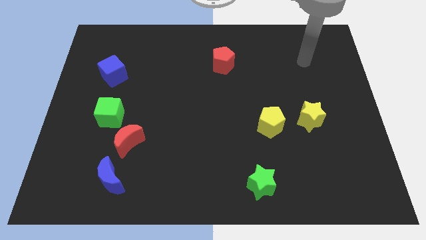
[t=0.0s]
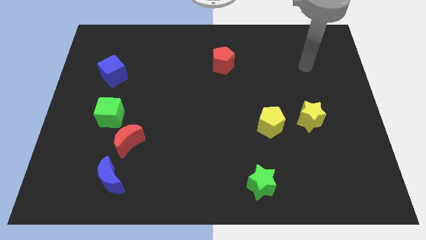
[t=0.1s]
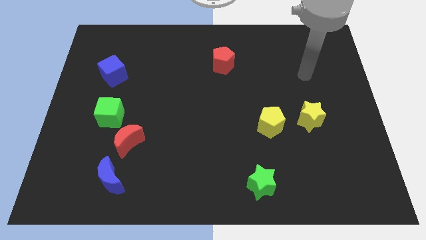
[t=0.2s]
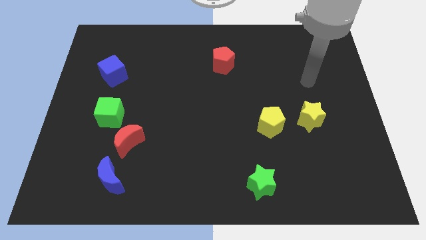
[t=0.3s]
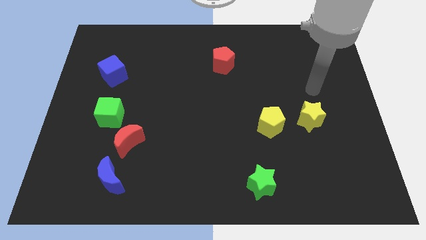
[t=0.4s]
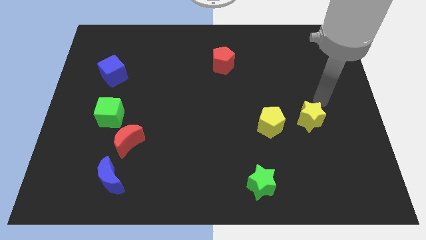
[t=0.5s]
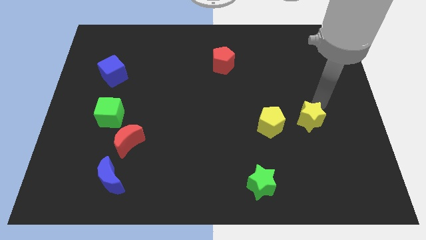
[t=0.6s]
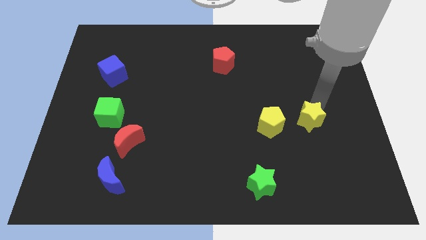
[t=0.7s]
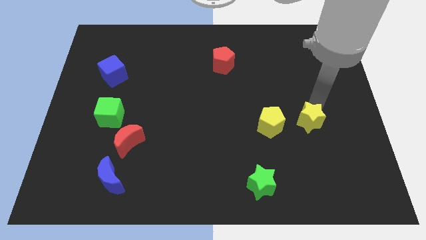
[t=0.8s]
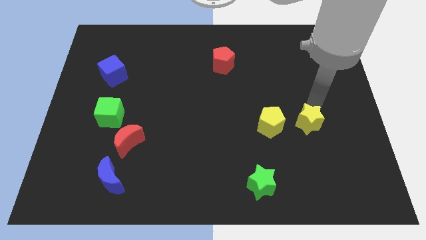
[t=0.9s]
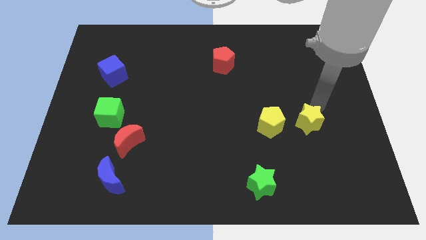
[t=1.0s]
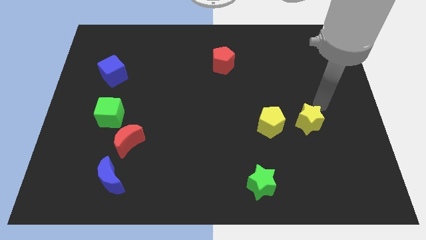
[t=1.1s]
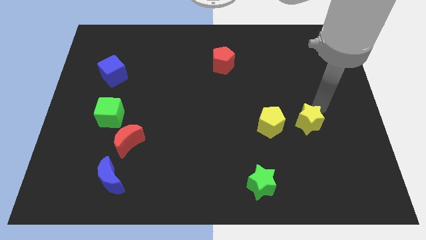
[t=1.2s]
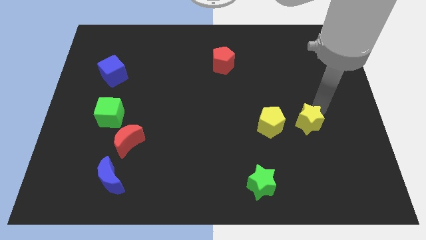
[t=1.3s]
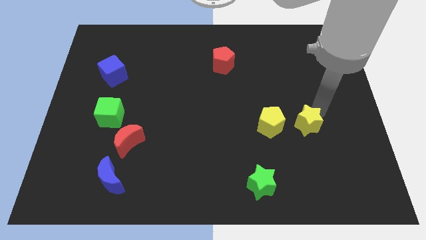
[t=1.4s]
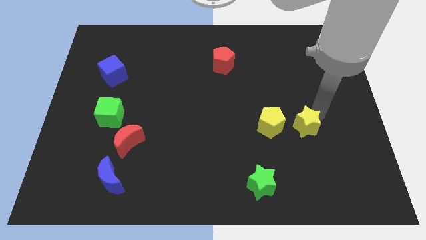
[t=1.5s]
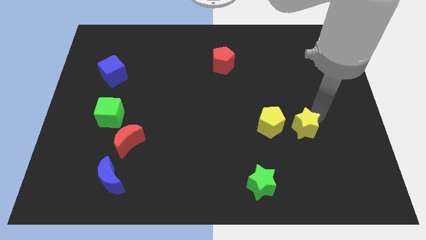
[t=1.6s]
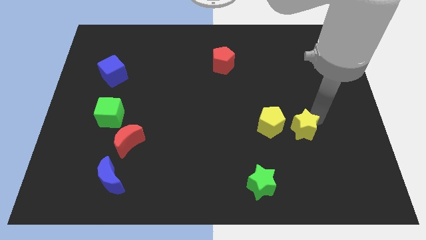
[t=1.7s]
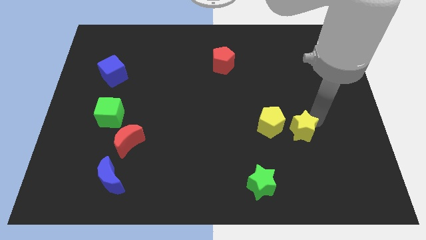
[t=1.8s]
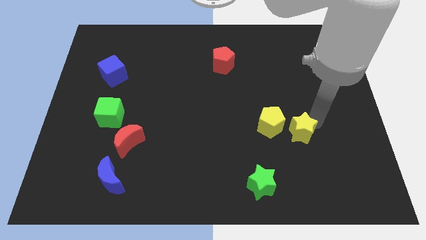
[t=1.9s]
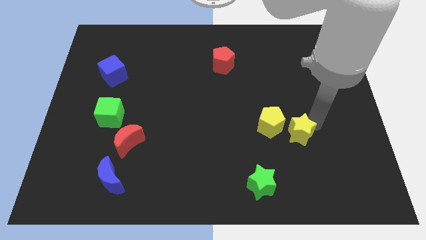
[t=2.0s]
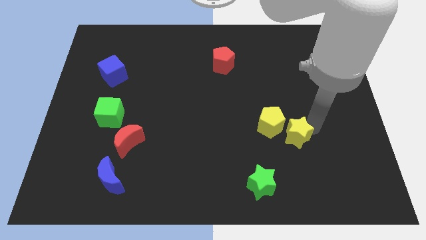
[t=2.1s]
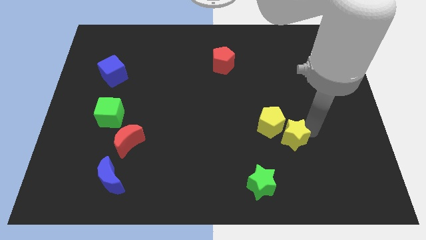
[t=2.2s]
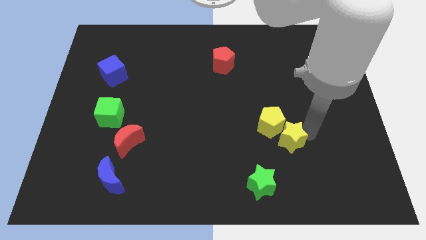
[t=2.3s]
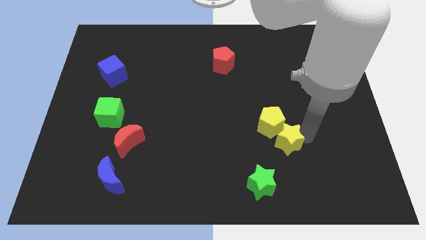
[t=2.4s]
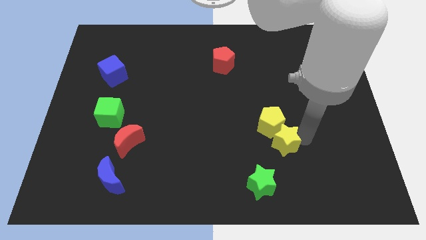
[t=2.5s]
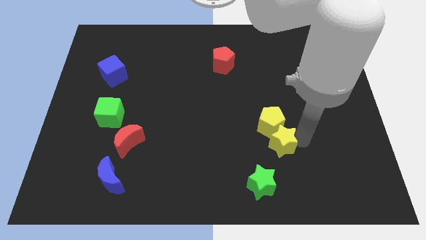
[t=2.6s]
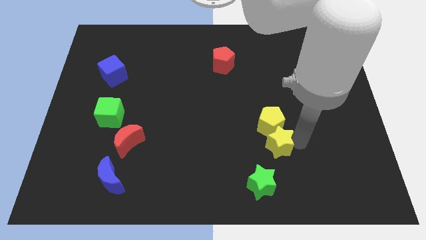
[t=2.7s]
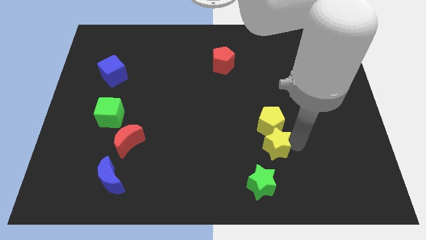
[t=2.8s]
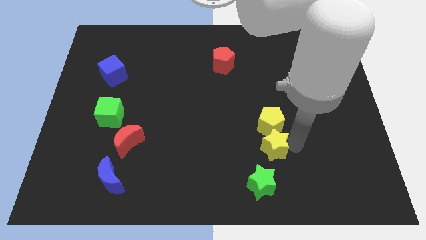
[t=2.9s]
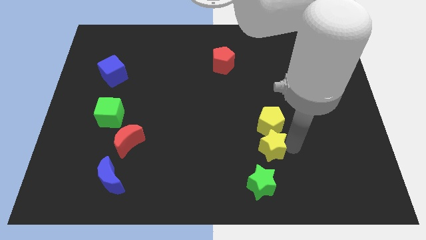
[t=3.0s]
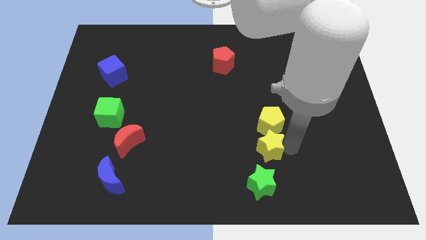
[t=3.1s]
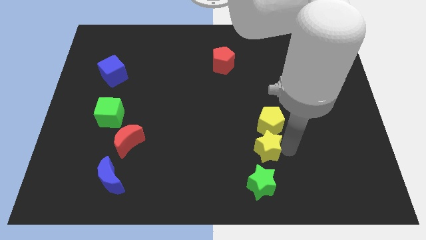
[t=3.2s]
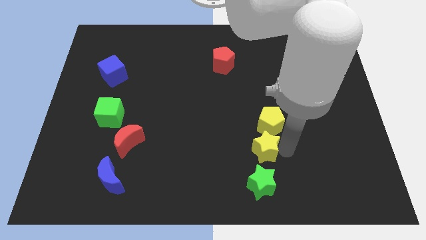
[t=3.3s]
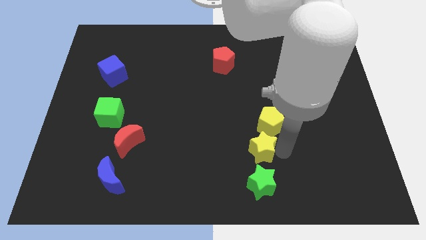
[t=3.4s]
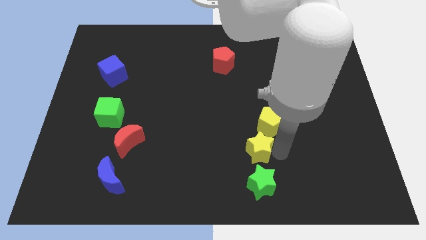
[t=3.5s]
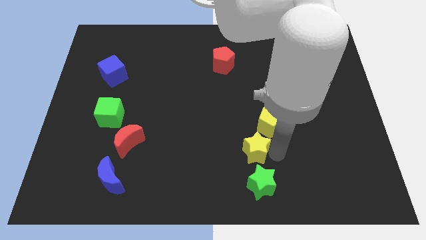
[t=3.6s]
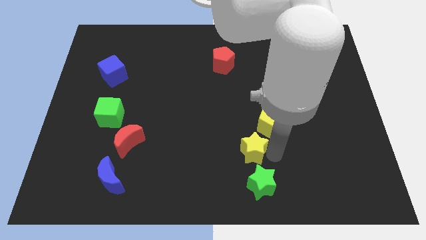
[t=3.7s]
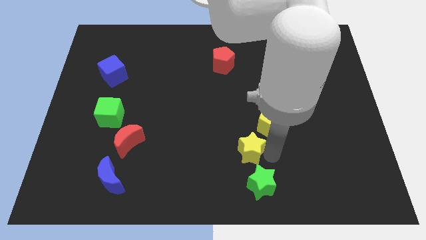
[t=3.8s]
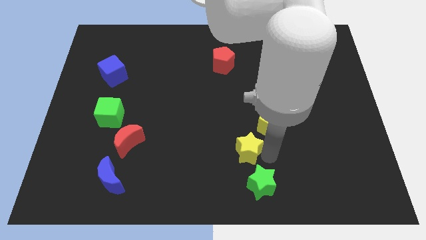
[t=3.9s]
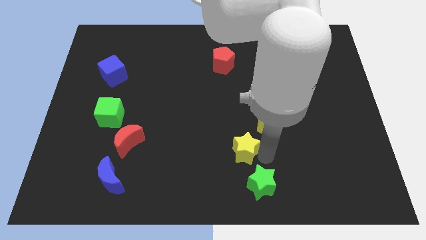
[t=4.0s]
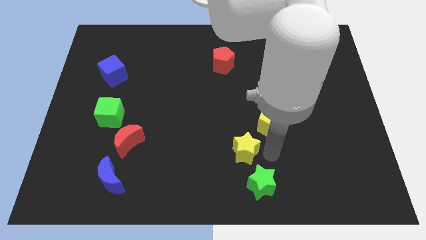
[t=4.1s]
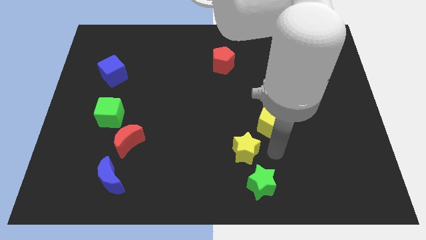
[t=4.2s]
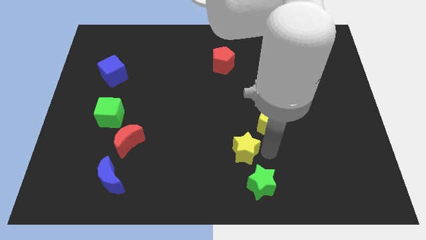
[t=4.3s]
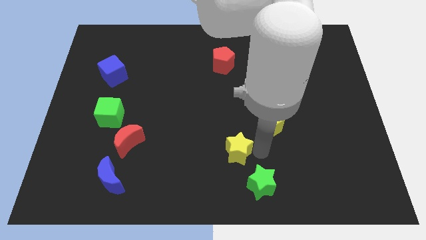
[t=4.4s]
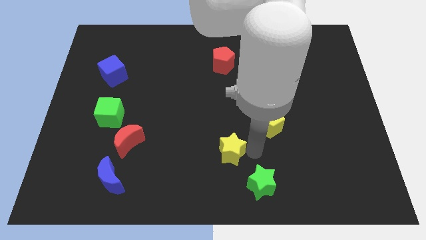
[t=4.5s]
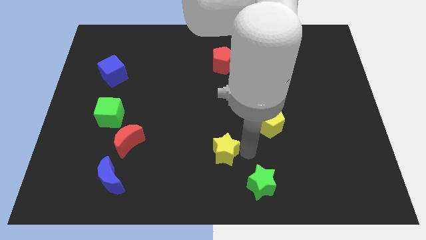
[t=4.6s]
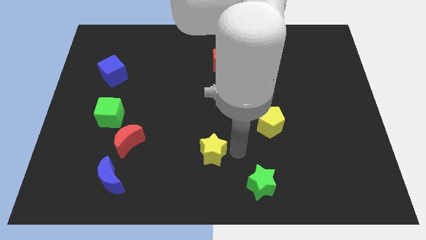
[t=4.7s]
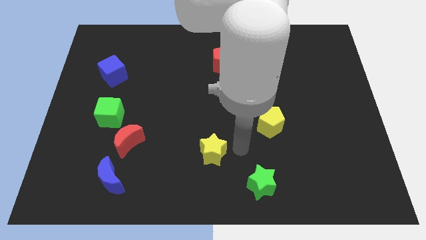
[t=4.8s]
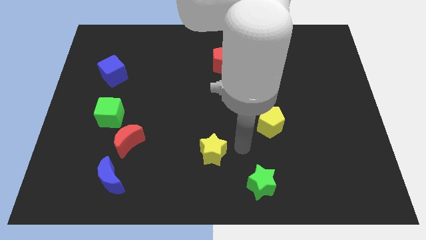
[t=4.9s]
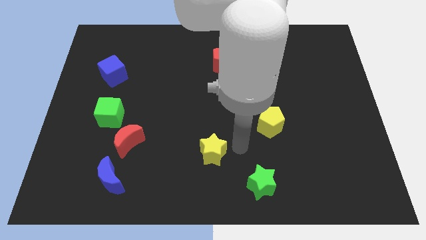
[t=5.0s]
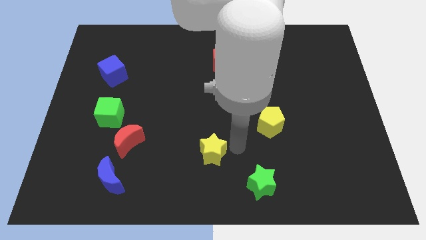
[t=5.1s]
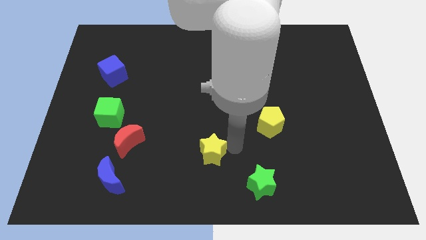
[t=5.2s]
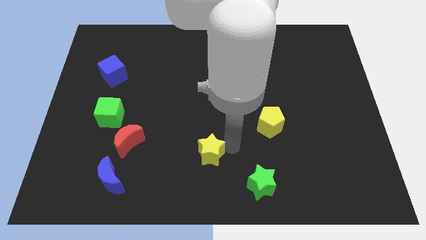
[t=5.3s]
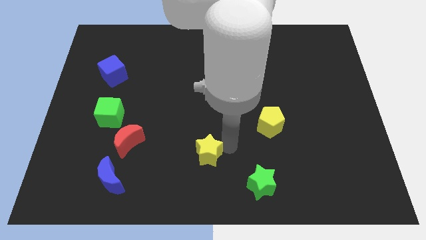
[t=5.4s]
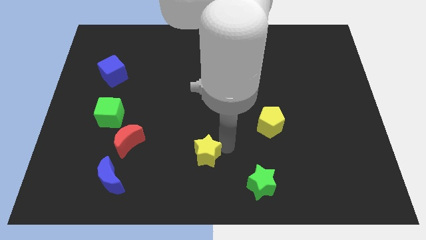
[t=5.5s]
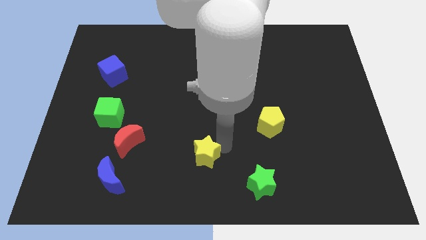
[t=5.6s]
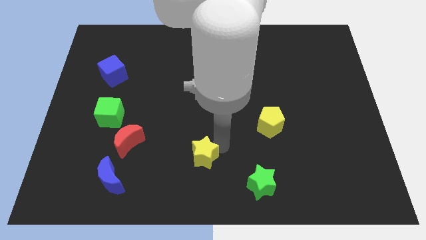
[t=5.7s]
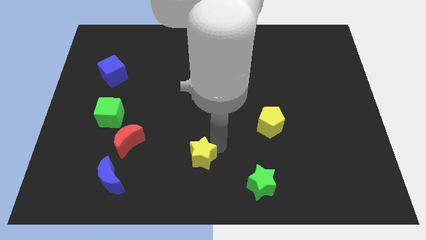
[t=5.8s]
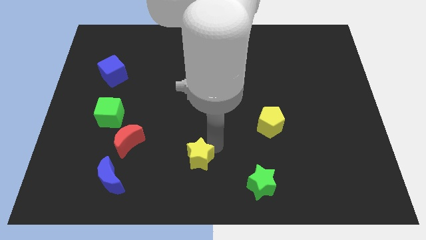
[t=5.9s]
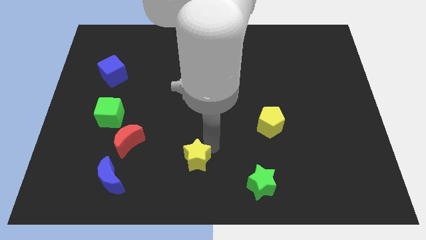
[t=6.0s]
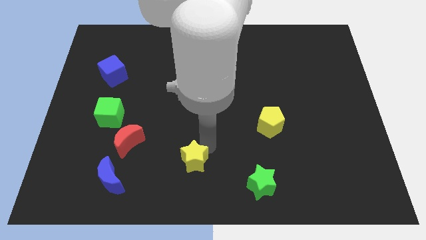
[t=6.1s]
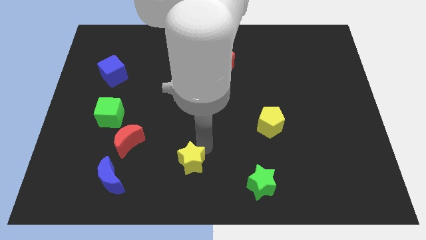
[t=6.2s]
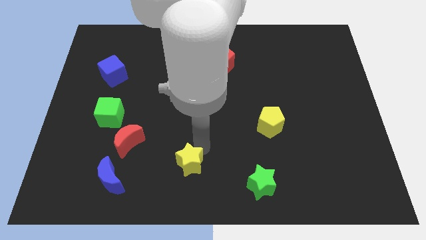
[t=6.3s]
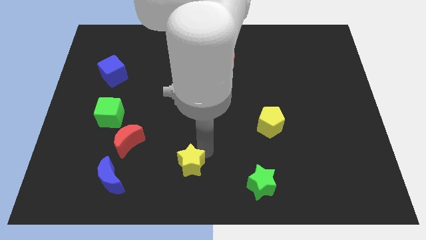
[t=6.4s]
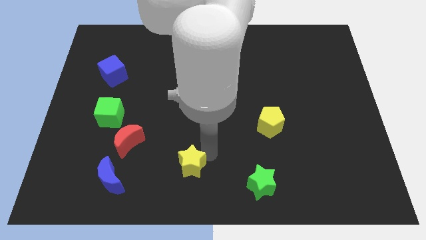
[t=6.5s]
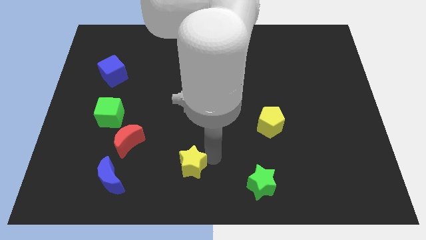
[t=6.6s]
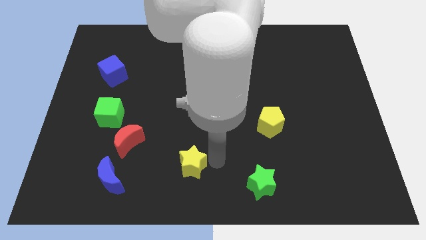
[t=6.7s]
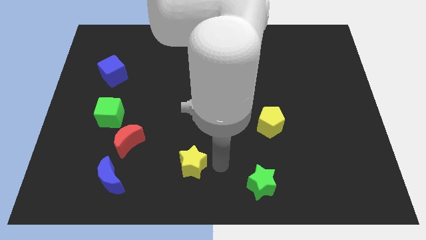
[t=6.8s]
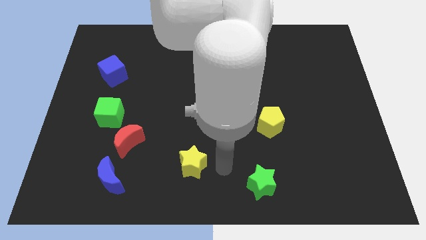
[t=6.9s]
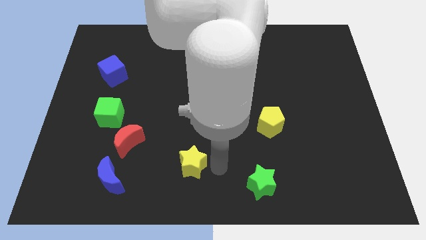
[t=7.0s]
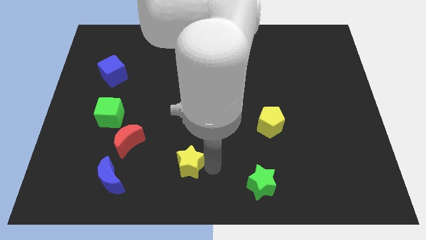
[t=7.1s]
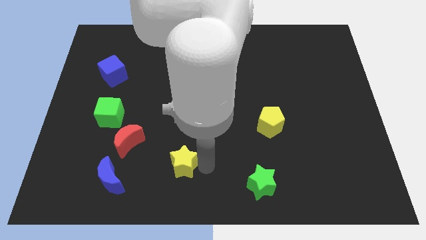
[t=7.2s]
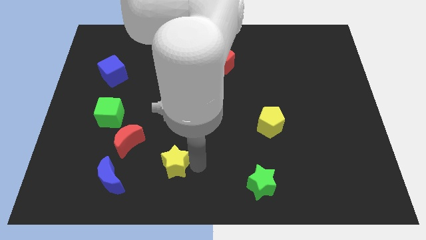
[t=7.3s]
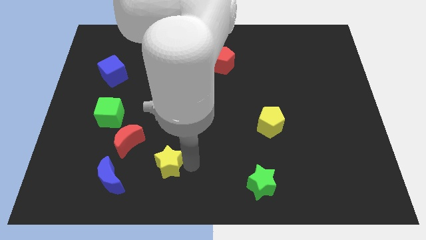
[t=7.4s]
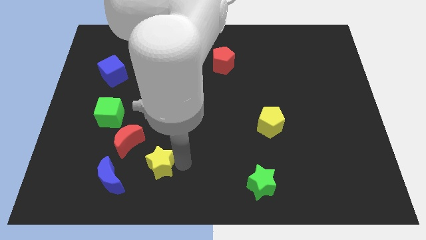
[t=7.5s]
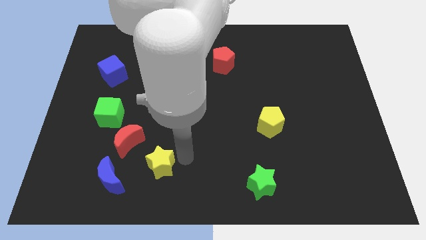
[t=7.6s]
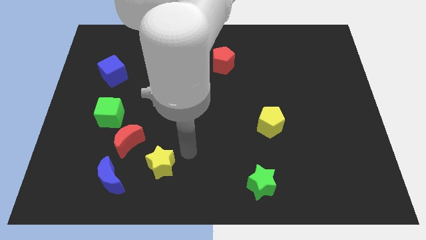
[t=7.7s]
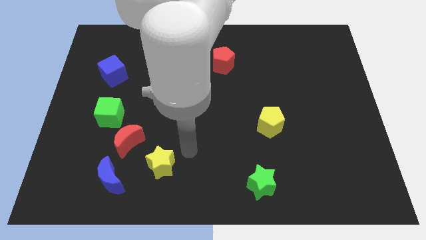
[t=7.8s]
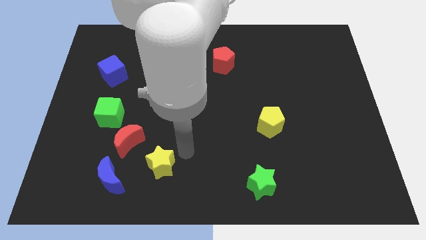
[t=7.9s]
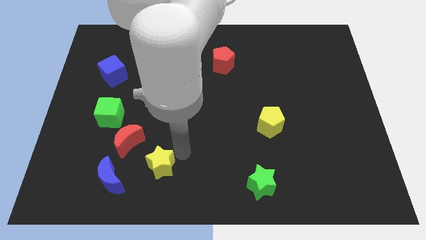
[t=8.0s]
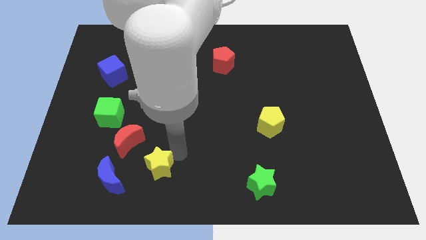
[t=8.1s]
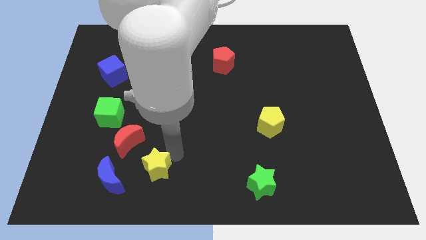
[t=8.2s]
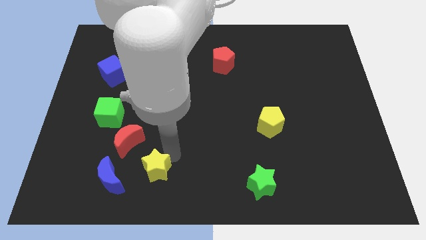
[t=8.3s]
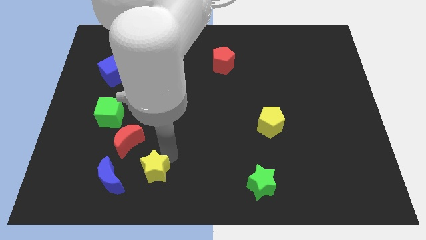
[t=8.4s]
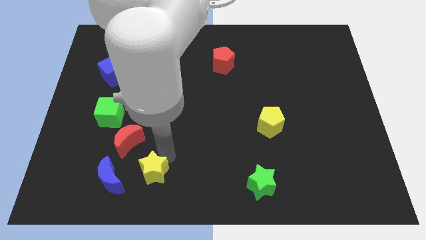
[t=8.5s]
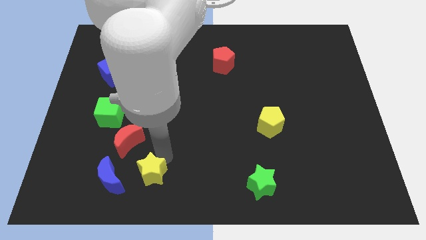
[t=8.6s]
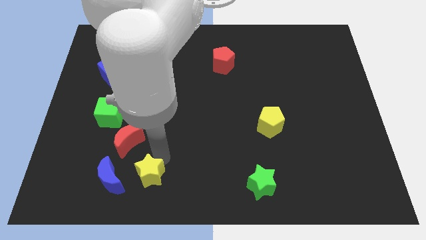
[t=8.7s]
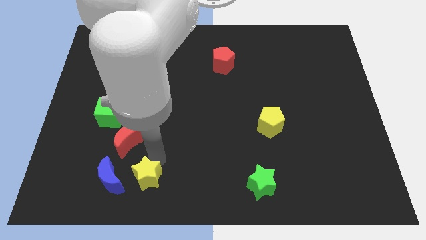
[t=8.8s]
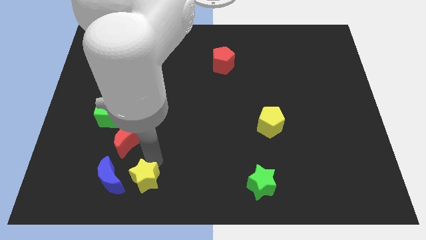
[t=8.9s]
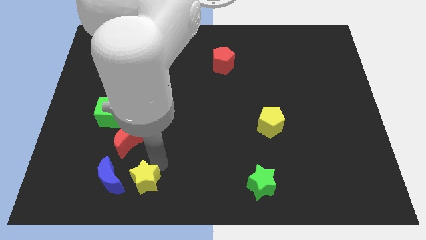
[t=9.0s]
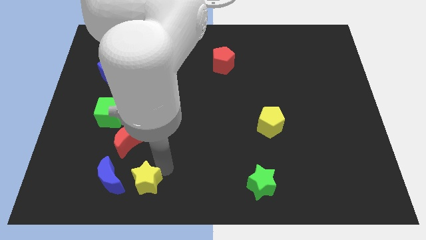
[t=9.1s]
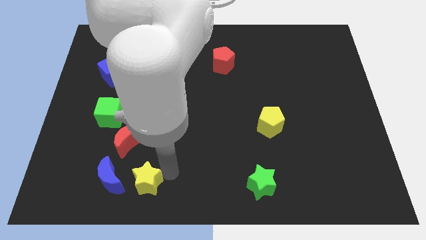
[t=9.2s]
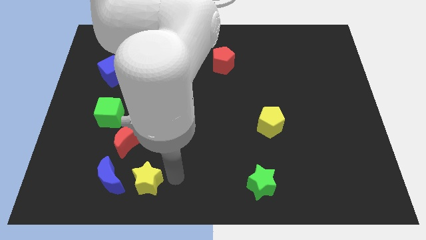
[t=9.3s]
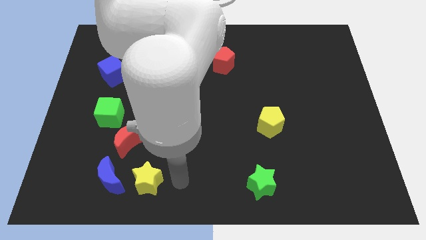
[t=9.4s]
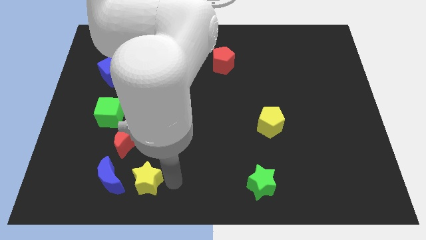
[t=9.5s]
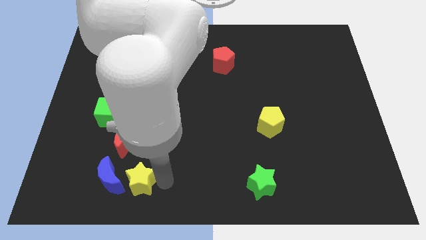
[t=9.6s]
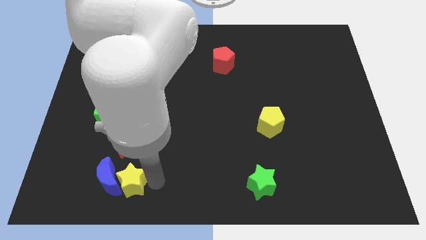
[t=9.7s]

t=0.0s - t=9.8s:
slide the yellow star next to the blue moon
